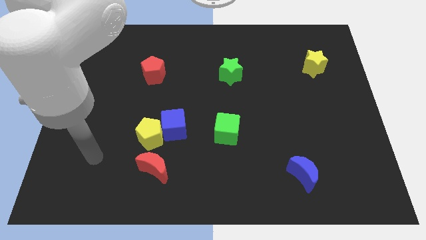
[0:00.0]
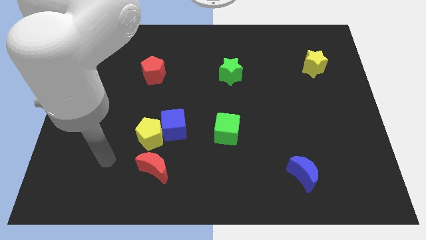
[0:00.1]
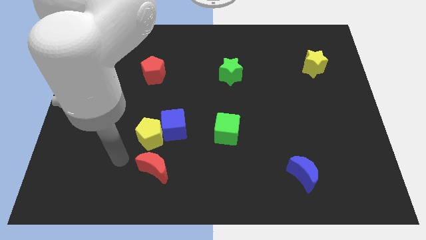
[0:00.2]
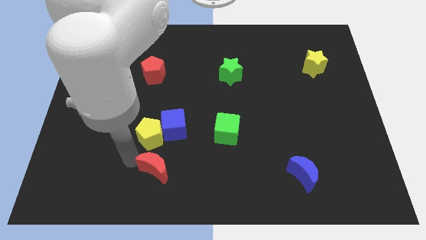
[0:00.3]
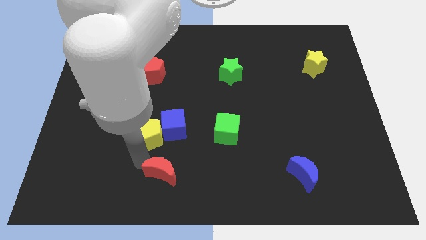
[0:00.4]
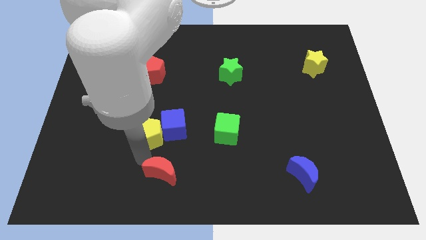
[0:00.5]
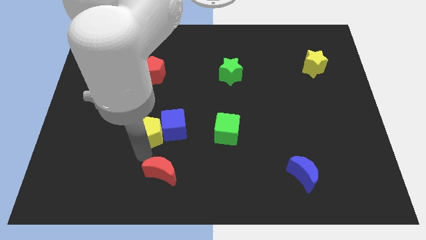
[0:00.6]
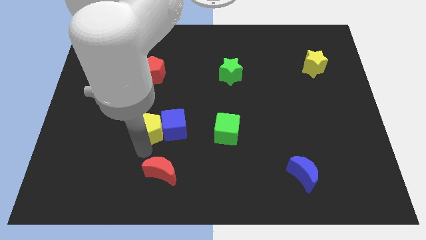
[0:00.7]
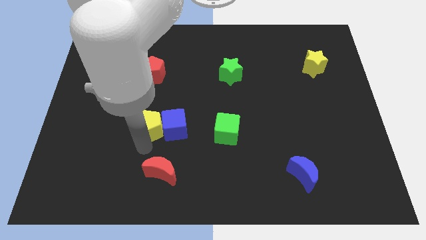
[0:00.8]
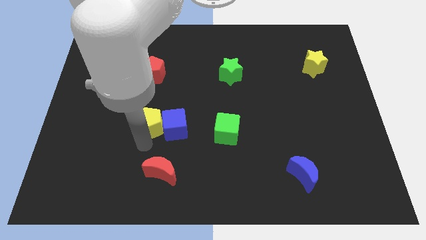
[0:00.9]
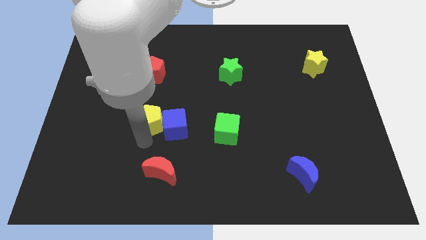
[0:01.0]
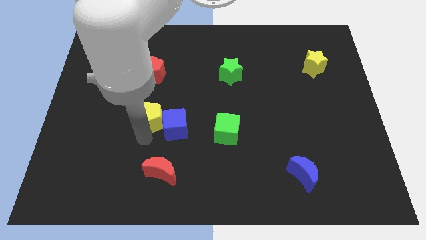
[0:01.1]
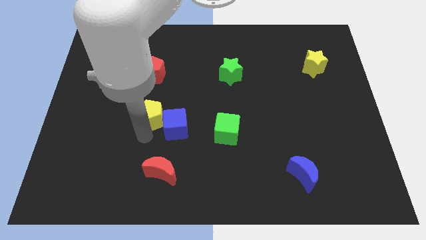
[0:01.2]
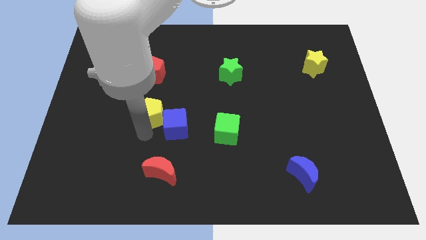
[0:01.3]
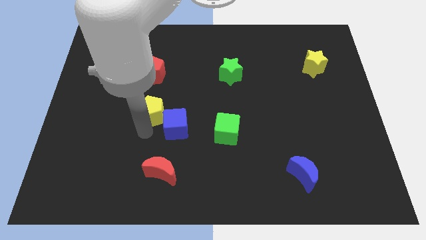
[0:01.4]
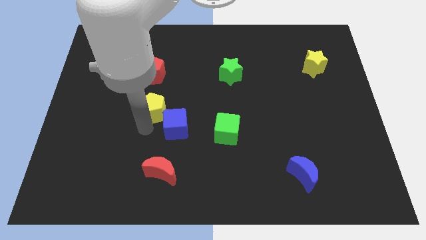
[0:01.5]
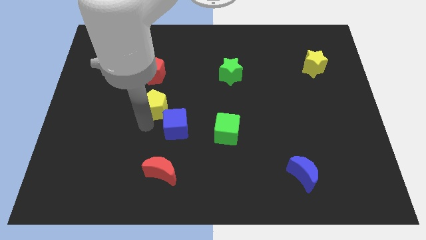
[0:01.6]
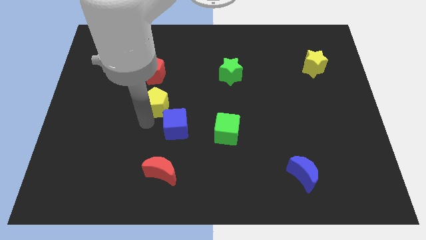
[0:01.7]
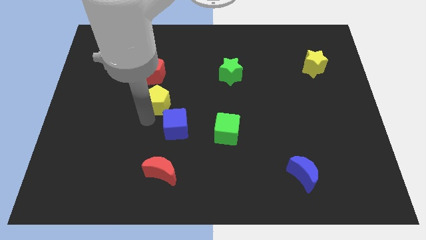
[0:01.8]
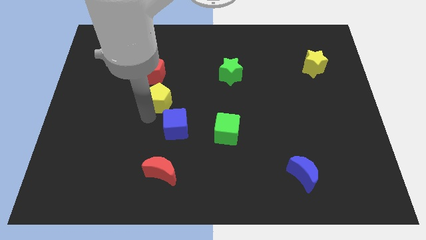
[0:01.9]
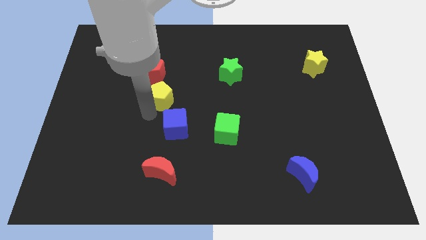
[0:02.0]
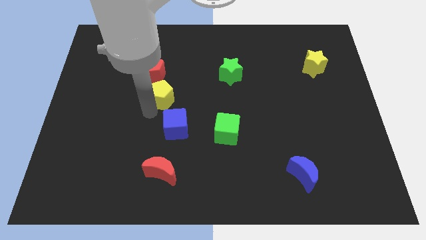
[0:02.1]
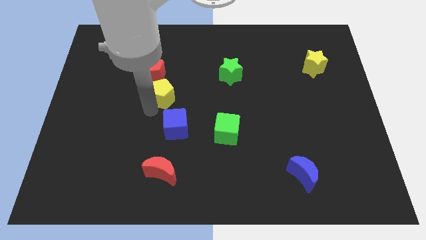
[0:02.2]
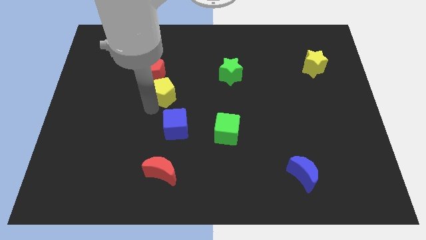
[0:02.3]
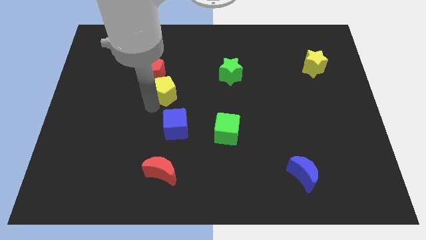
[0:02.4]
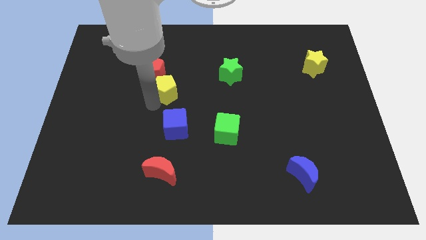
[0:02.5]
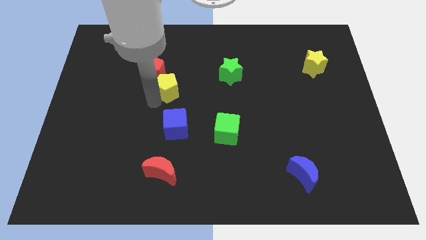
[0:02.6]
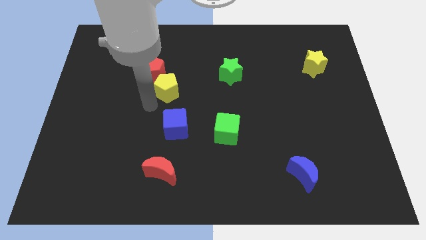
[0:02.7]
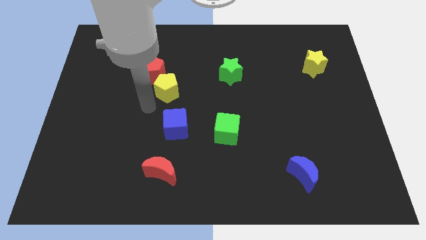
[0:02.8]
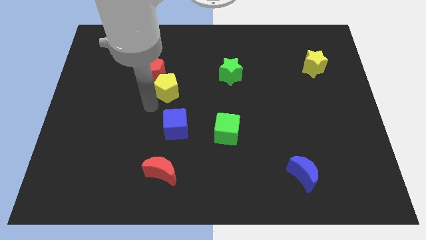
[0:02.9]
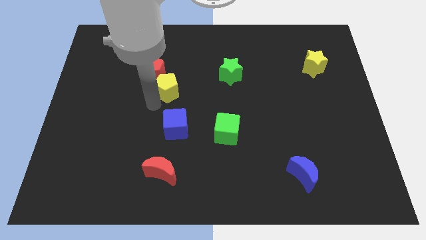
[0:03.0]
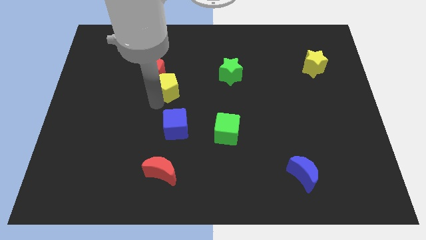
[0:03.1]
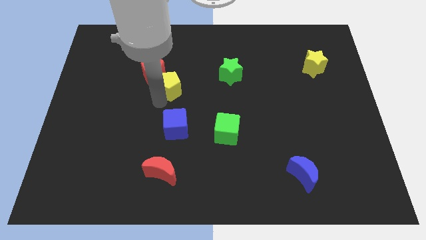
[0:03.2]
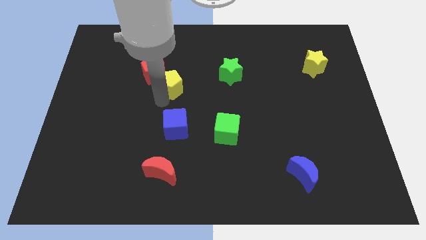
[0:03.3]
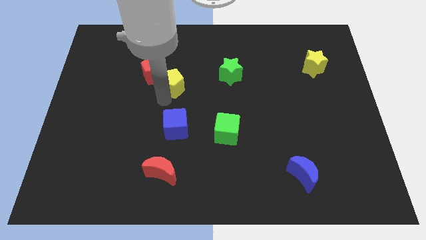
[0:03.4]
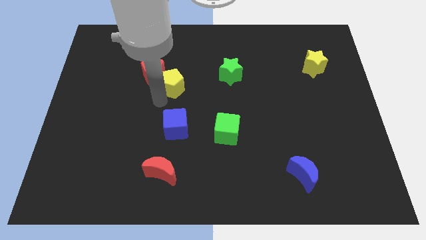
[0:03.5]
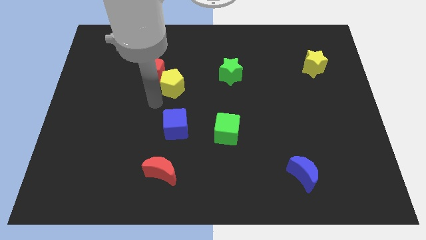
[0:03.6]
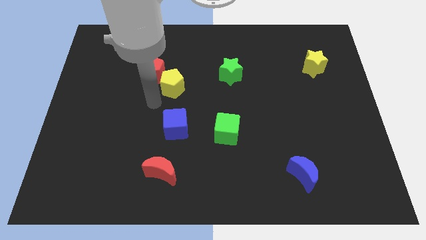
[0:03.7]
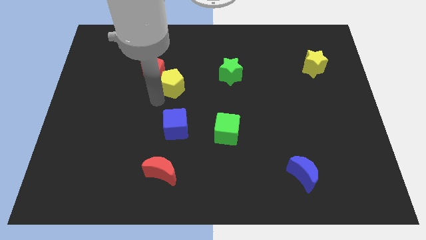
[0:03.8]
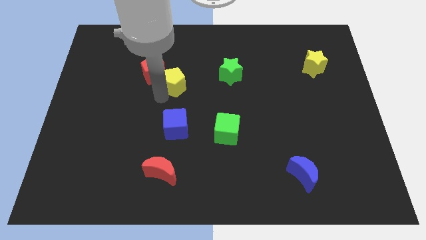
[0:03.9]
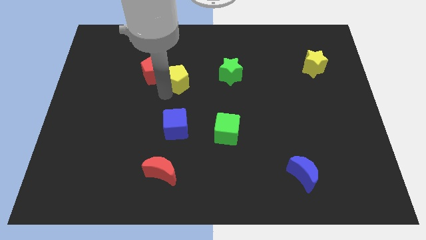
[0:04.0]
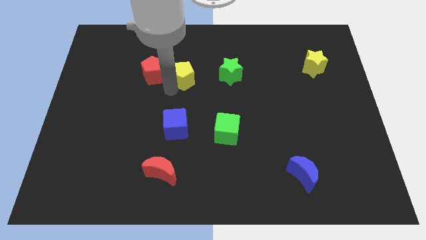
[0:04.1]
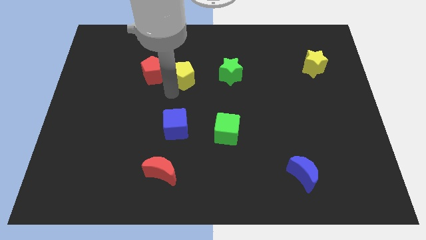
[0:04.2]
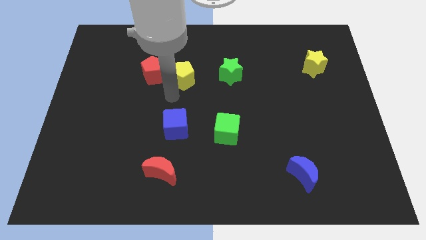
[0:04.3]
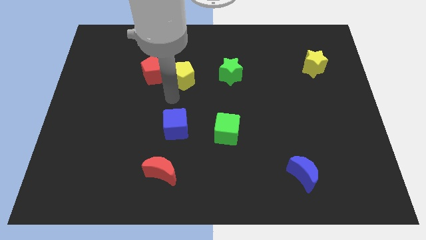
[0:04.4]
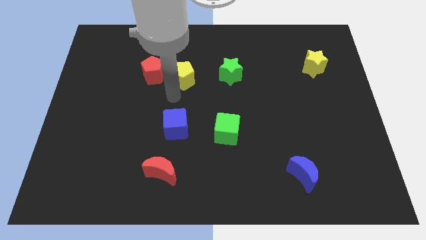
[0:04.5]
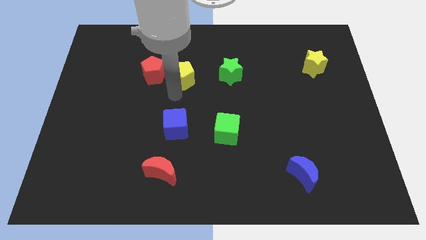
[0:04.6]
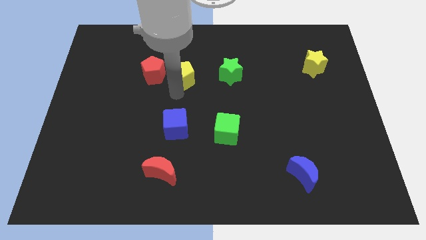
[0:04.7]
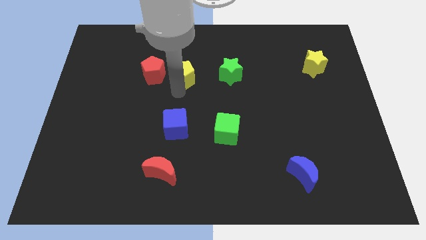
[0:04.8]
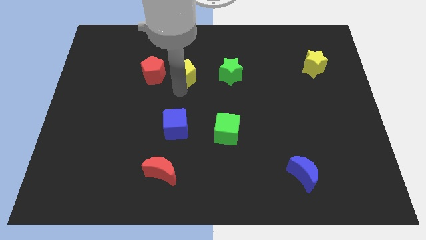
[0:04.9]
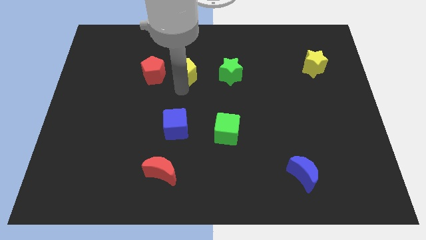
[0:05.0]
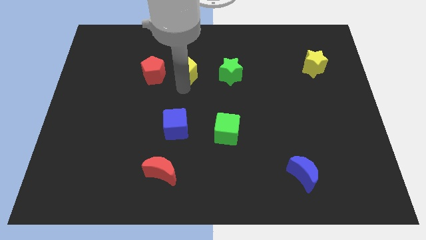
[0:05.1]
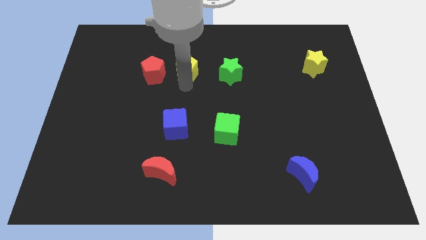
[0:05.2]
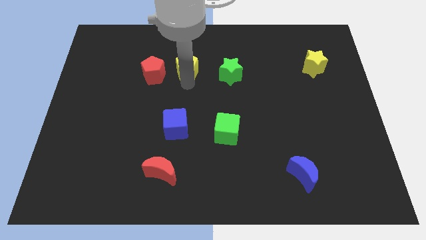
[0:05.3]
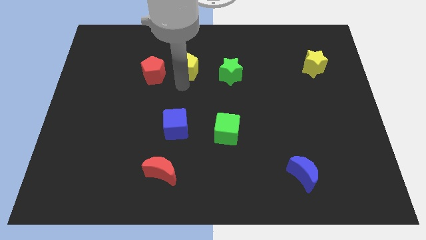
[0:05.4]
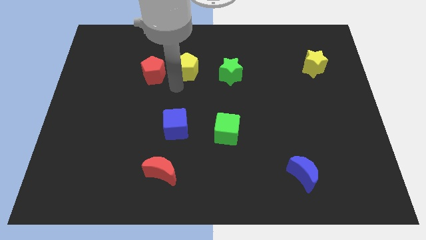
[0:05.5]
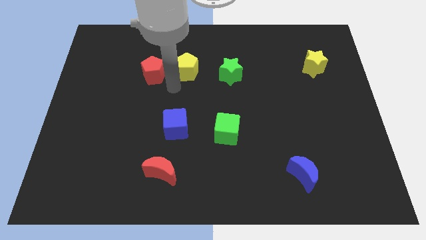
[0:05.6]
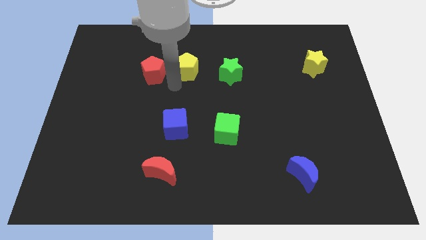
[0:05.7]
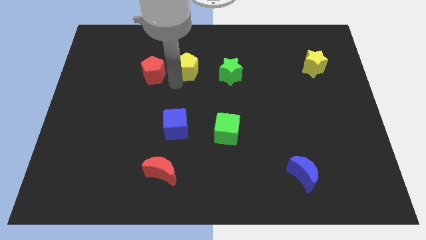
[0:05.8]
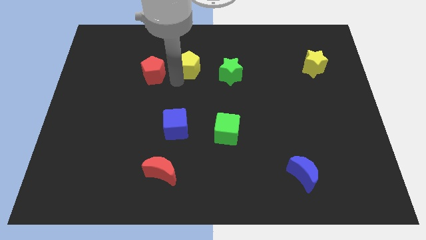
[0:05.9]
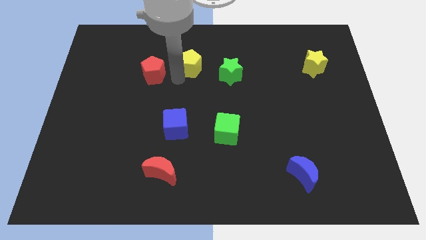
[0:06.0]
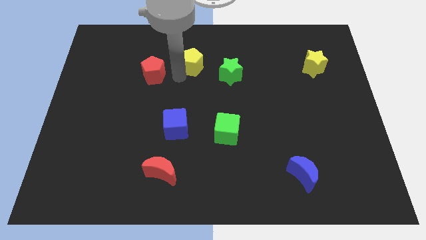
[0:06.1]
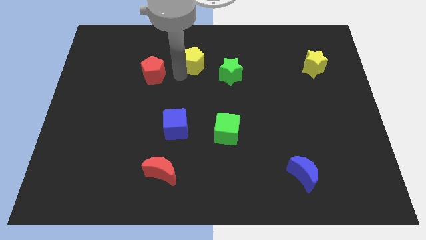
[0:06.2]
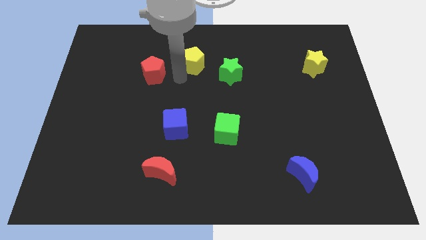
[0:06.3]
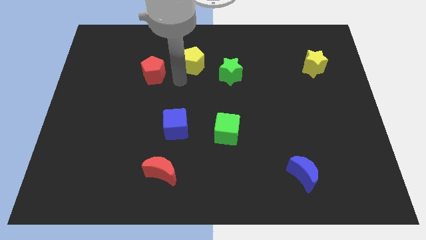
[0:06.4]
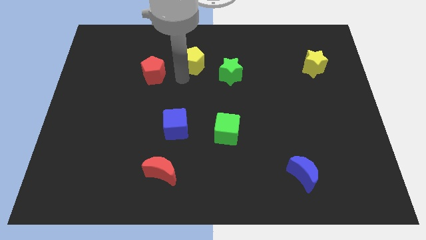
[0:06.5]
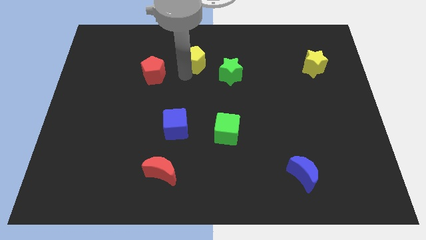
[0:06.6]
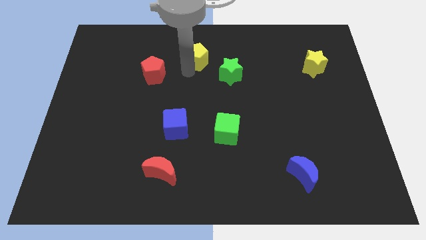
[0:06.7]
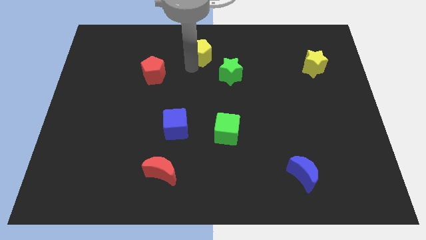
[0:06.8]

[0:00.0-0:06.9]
move the yellow pentagon to the top side
